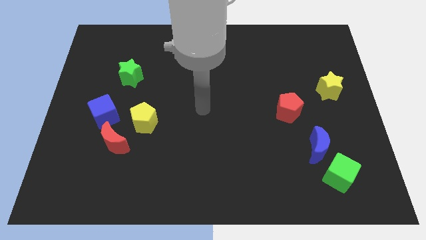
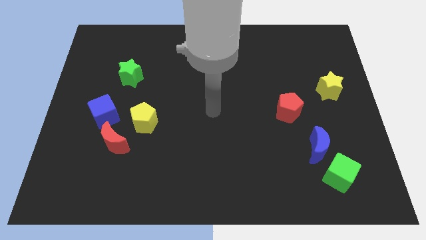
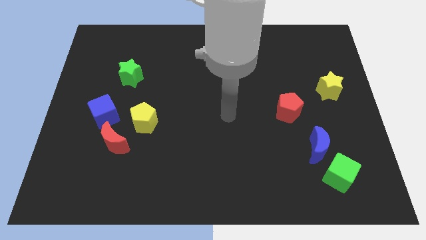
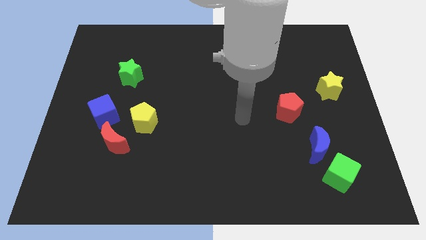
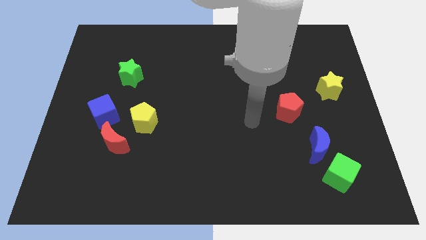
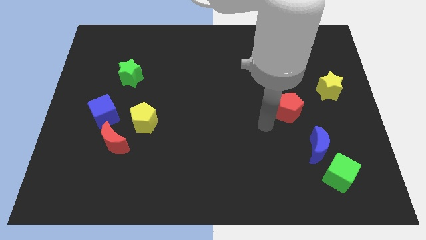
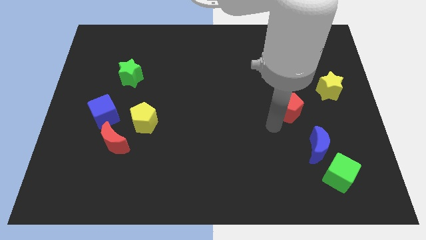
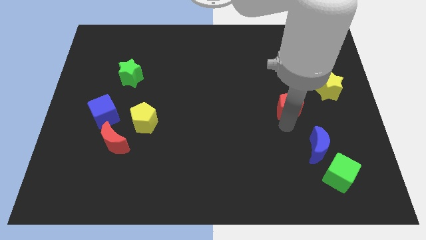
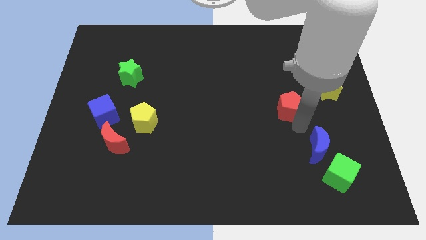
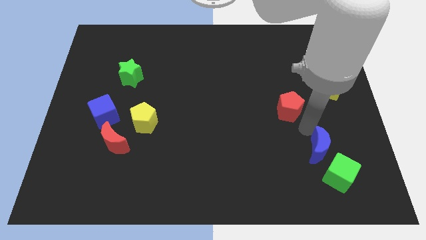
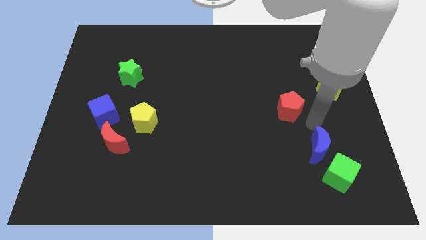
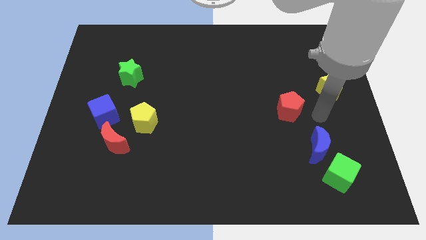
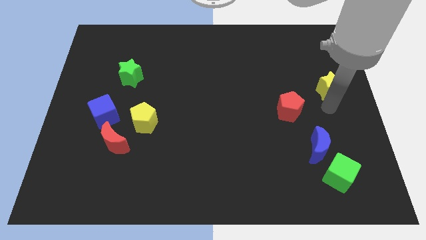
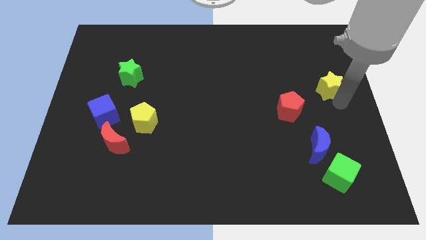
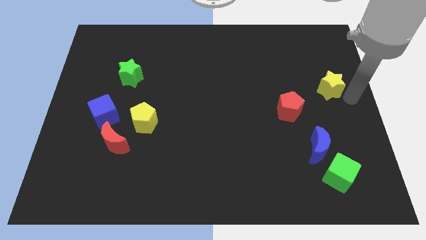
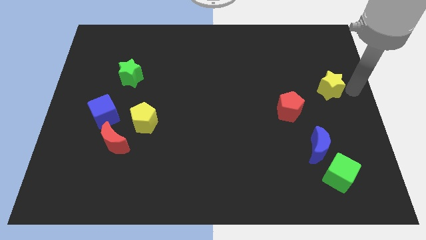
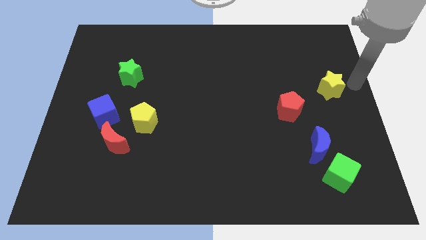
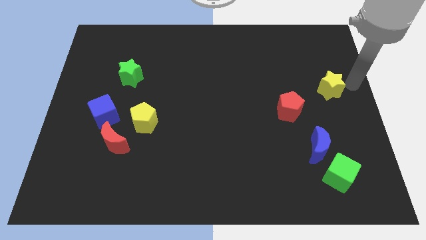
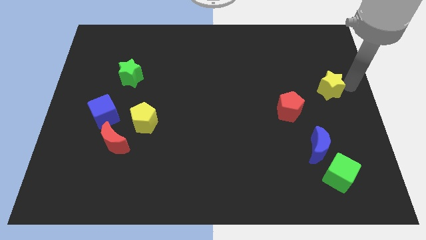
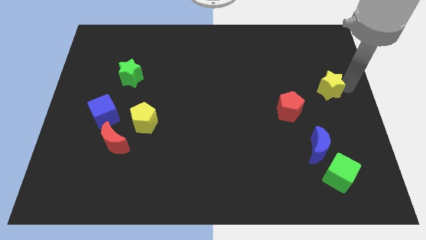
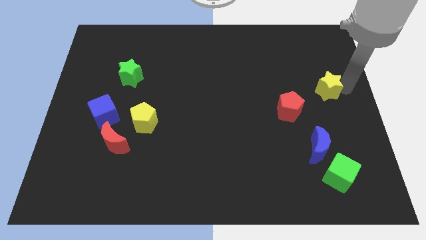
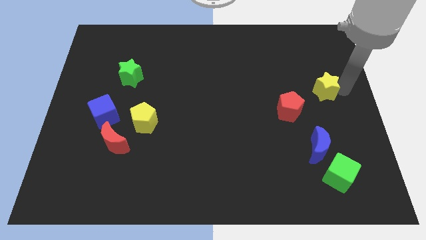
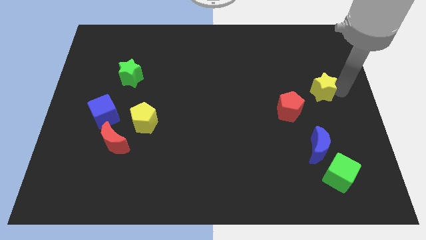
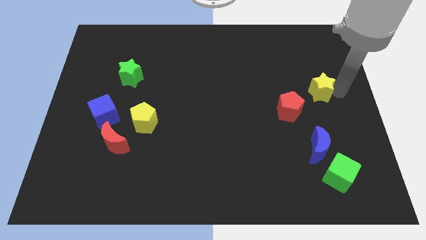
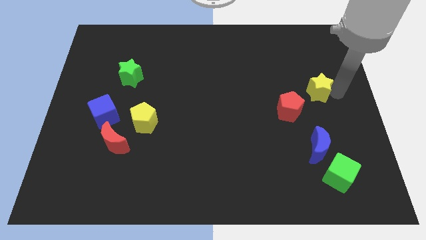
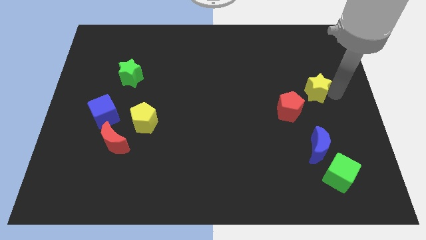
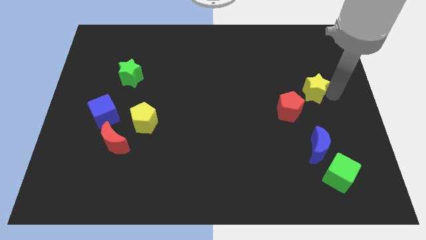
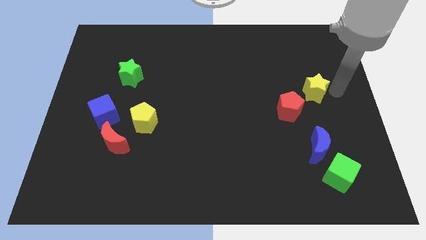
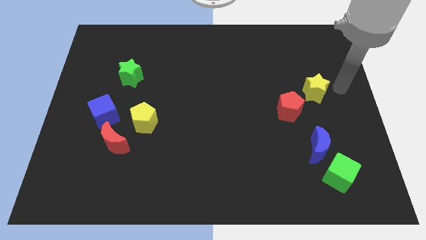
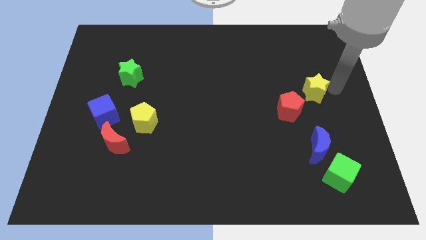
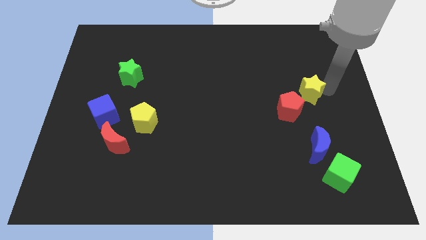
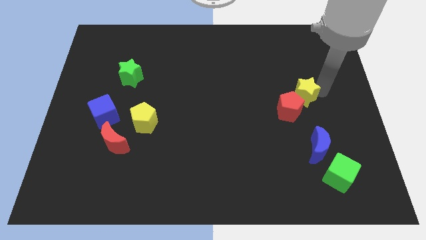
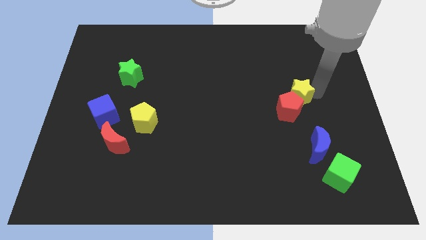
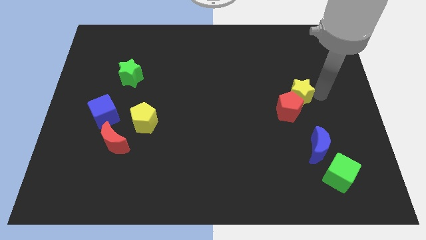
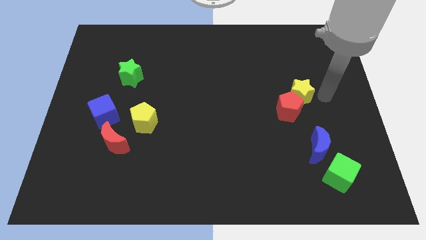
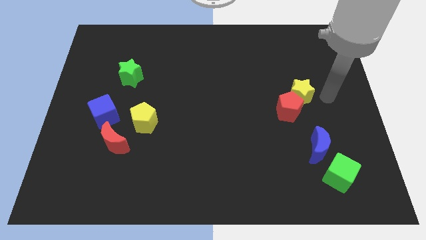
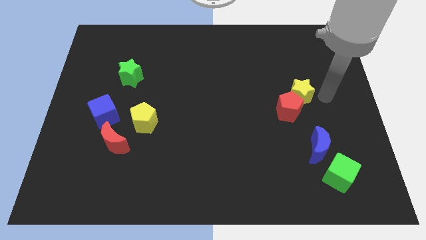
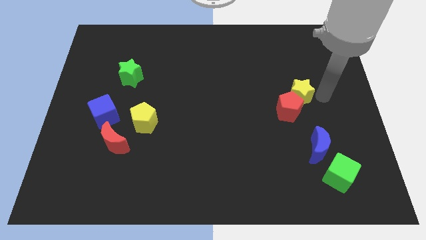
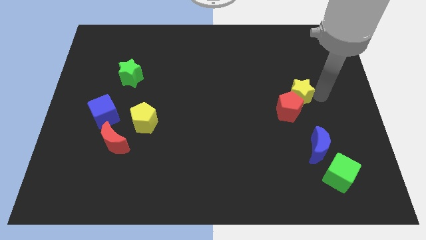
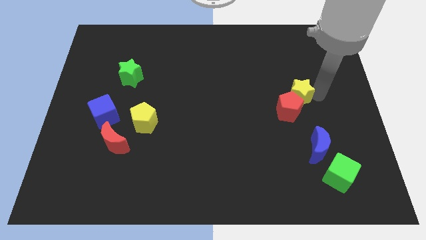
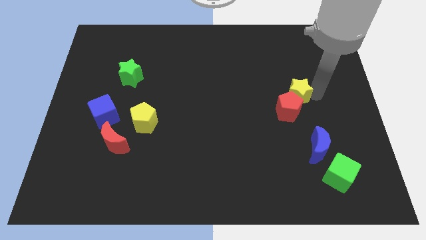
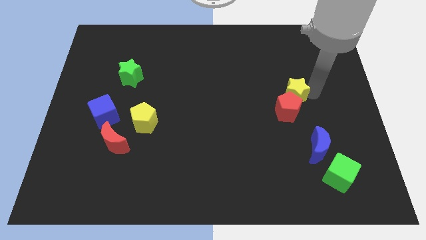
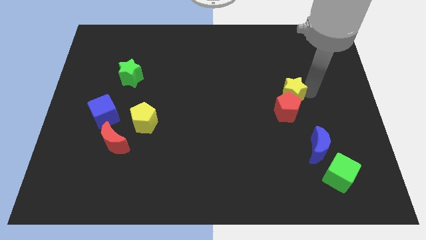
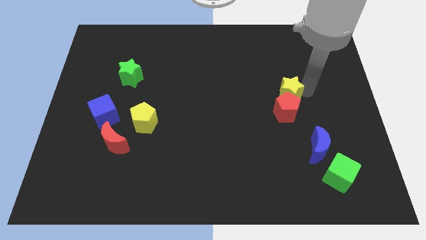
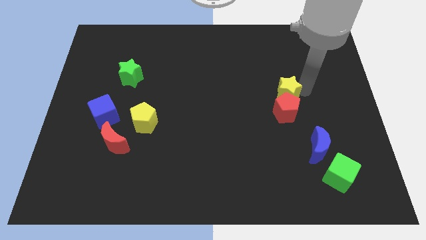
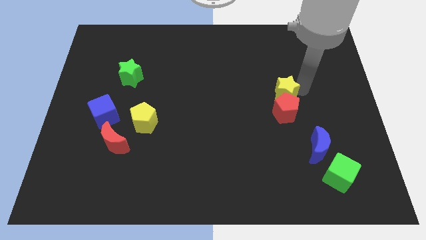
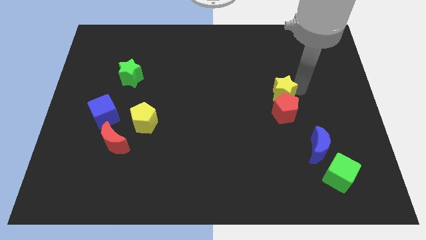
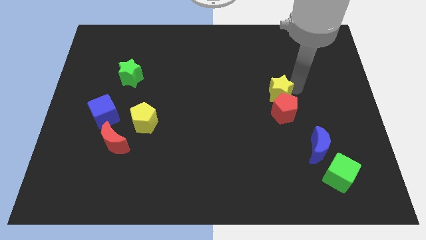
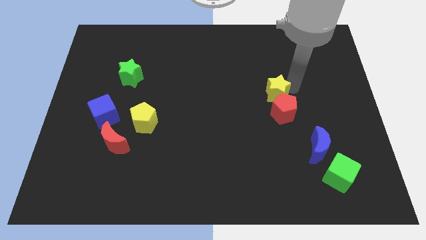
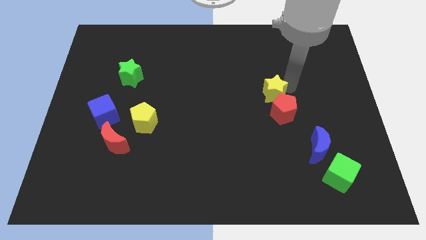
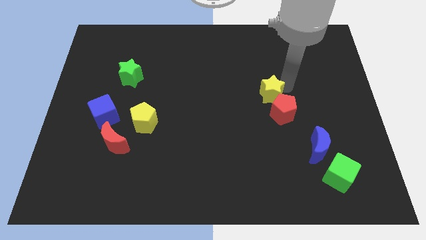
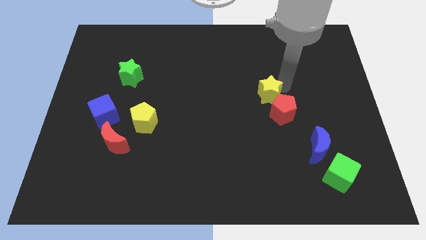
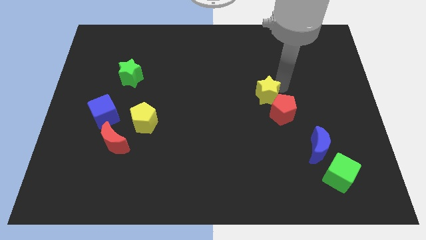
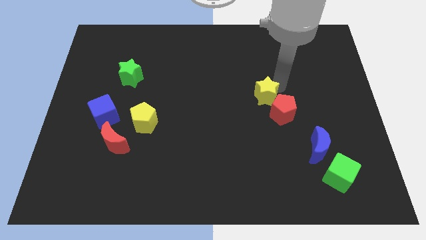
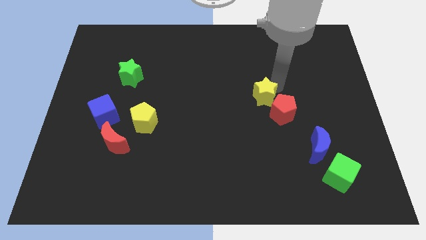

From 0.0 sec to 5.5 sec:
put the yellow star to the middle of the board

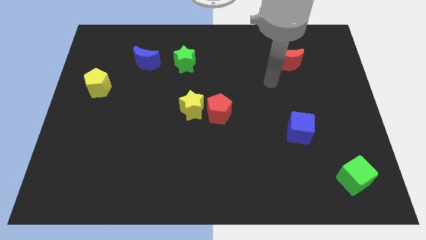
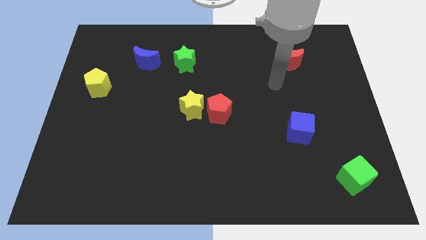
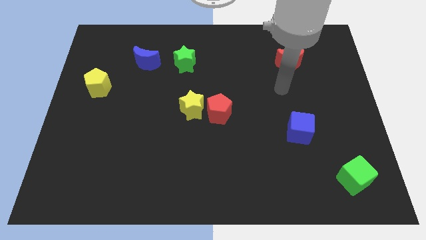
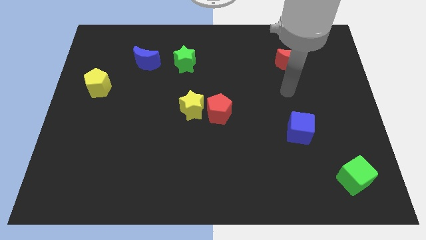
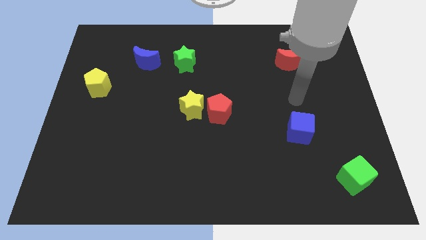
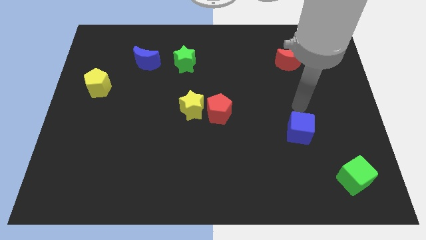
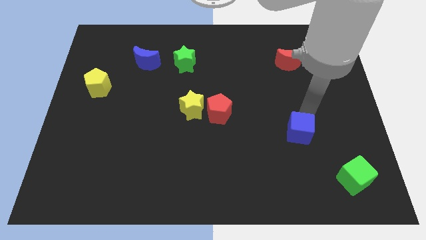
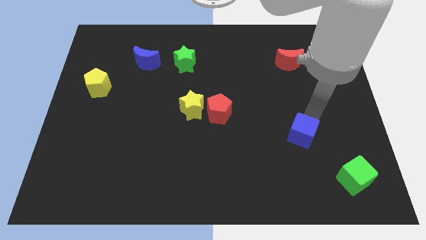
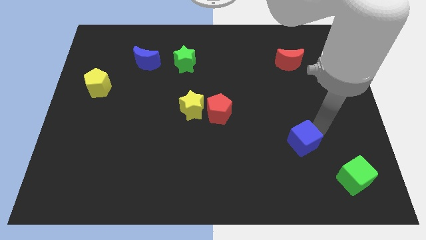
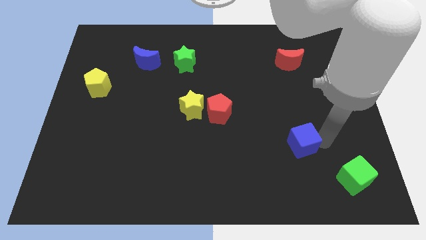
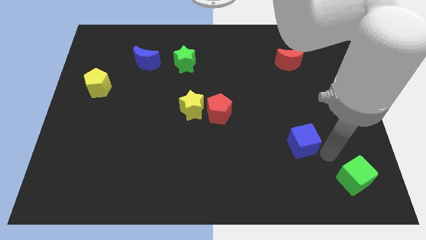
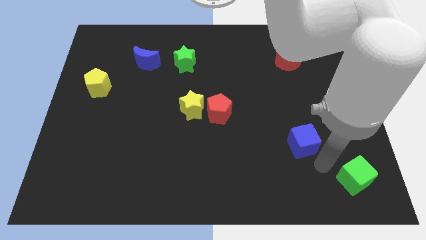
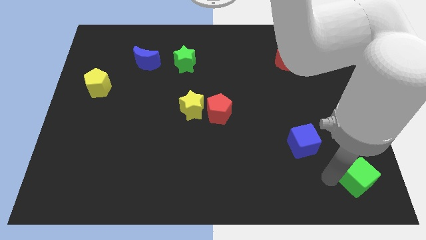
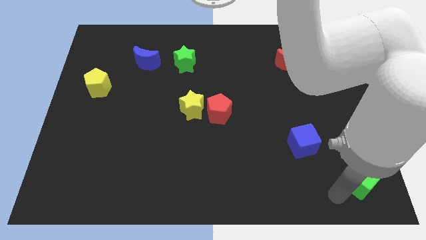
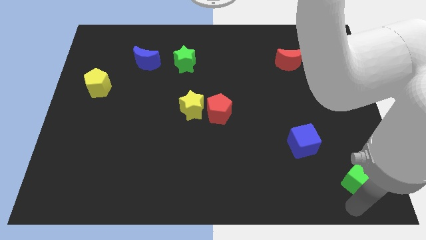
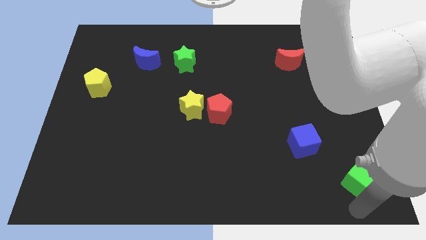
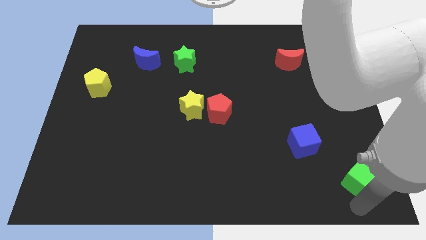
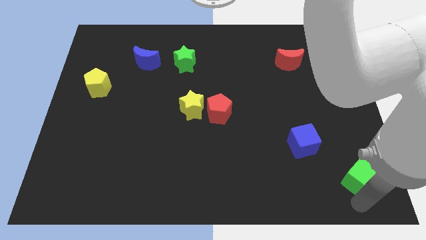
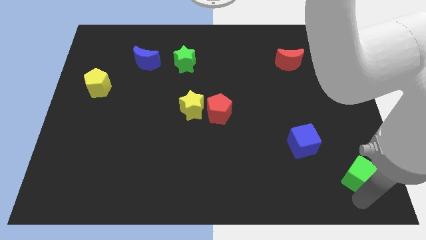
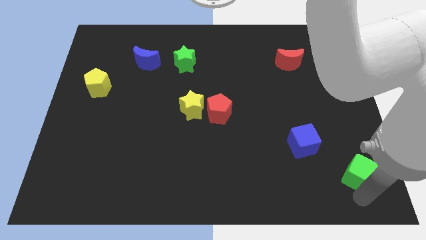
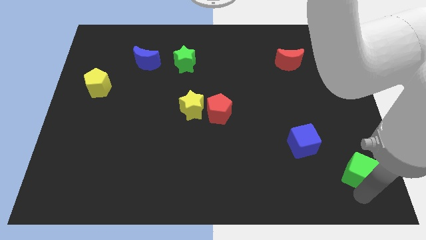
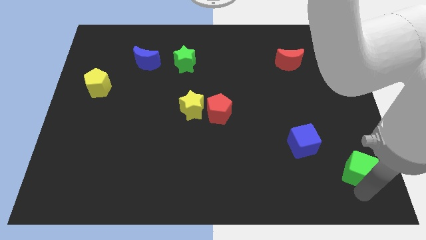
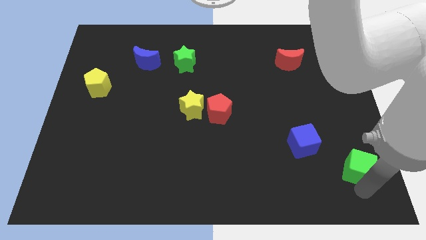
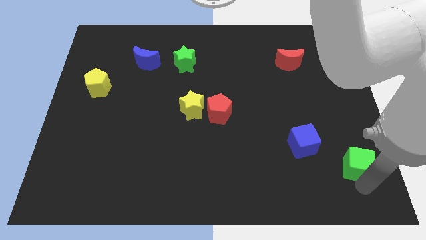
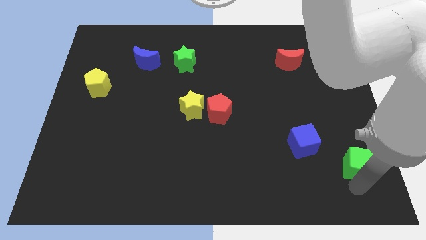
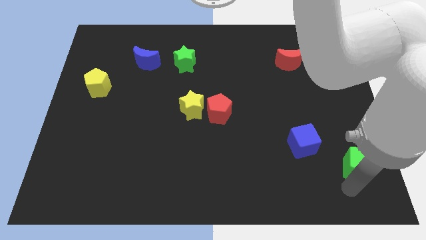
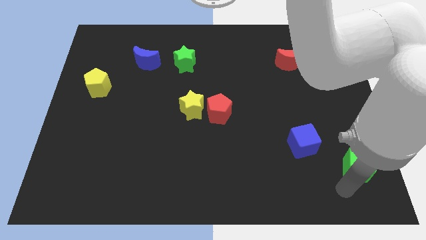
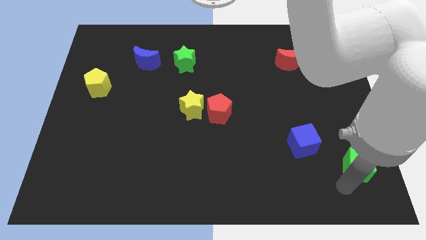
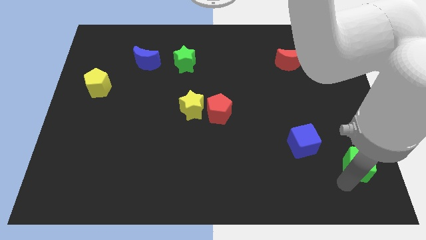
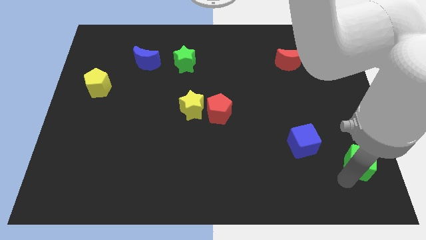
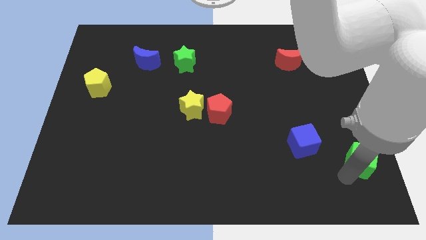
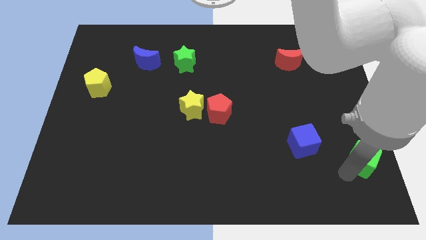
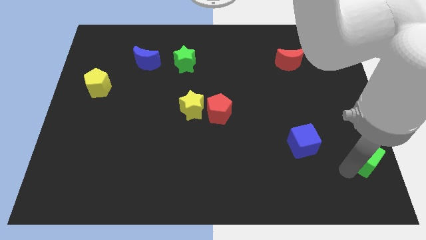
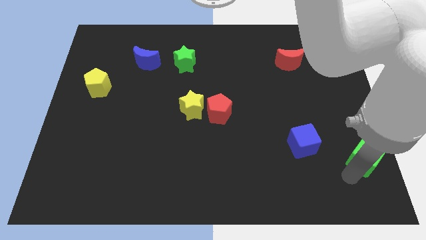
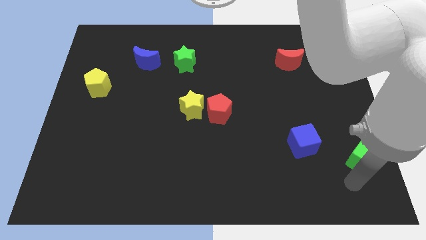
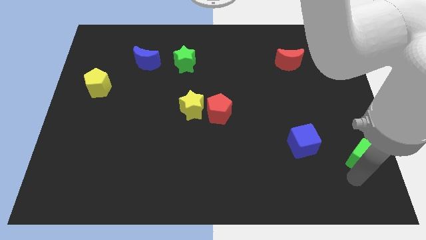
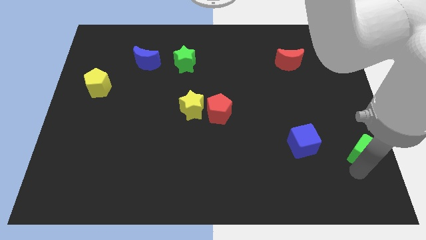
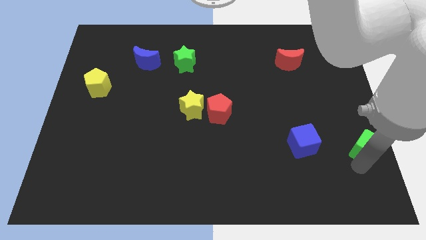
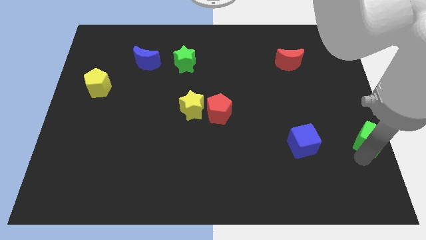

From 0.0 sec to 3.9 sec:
put the green cube to the center right
